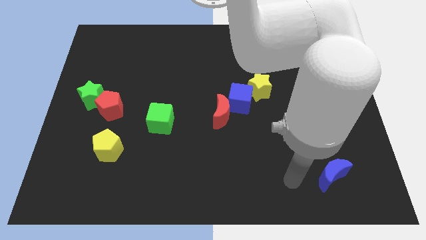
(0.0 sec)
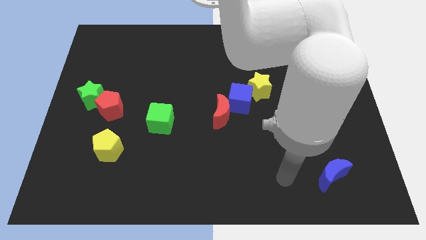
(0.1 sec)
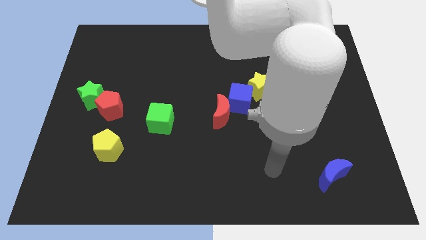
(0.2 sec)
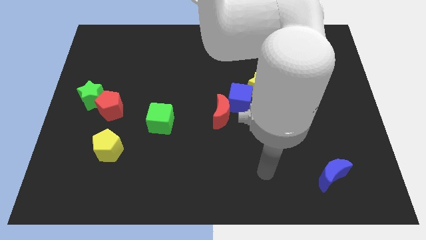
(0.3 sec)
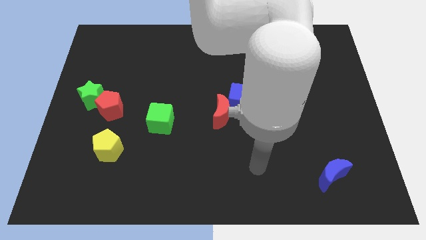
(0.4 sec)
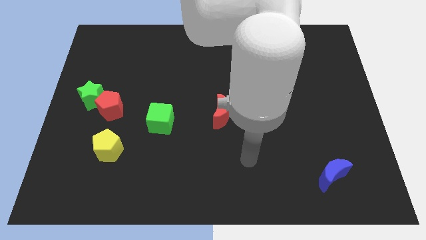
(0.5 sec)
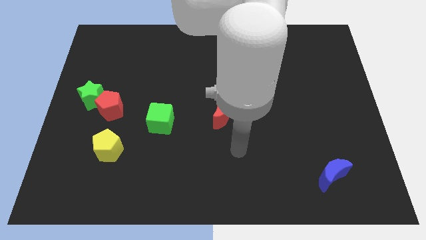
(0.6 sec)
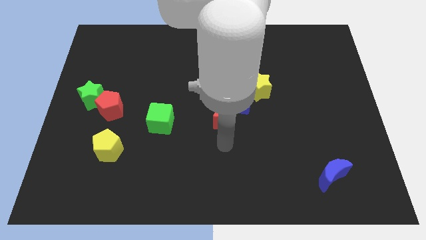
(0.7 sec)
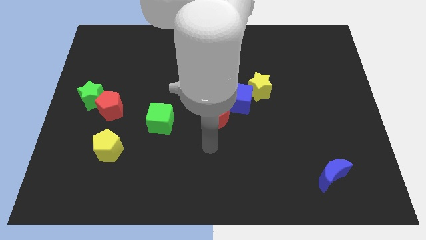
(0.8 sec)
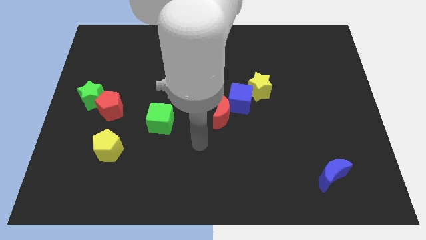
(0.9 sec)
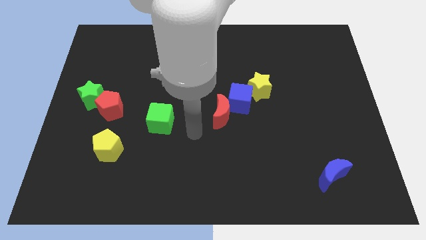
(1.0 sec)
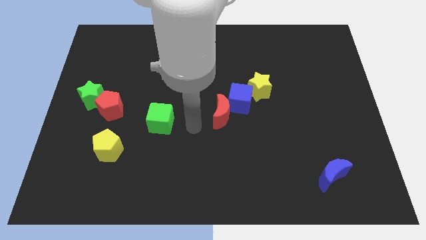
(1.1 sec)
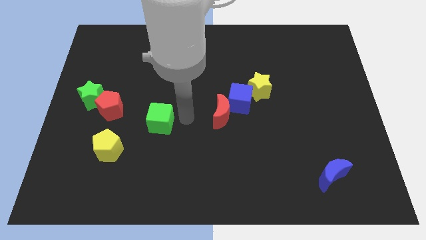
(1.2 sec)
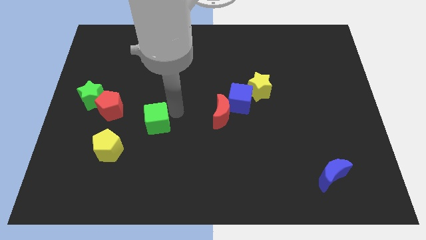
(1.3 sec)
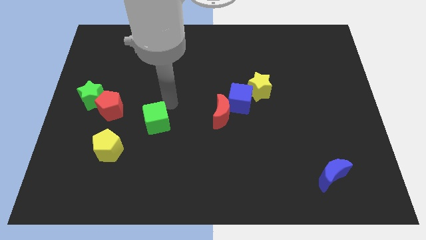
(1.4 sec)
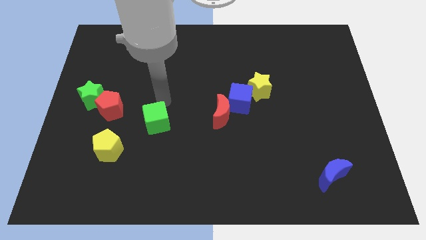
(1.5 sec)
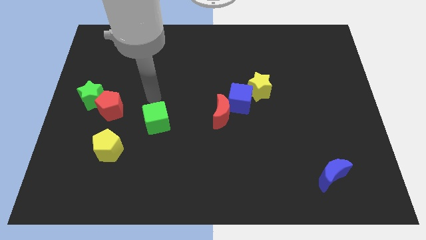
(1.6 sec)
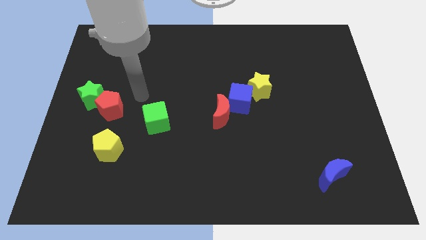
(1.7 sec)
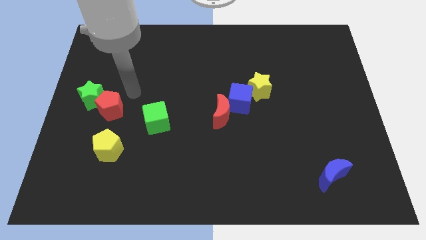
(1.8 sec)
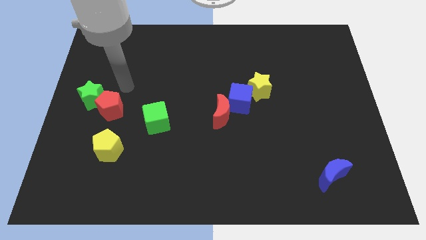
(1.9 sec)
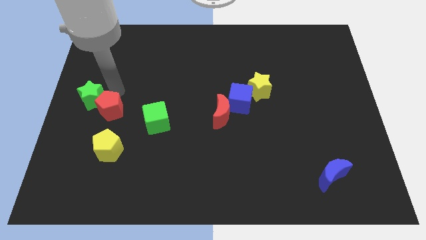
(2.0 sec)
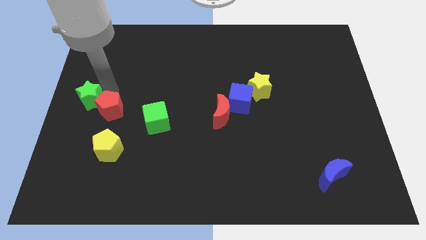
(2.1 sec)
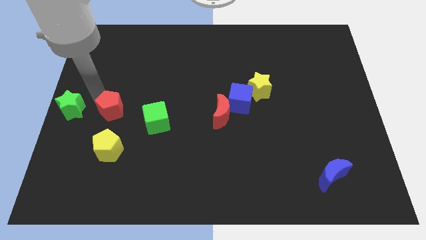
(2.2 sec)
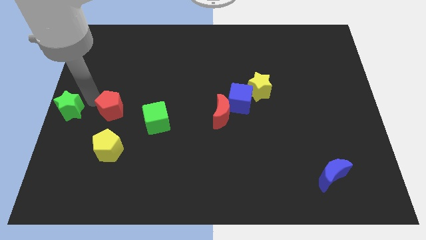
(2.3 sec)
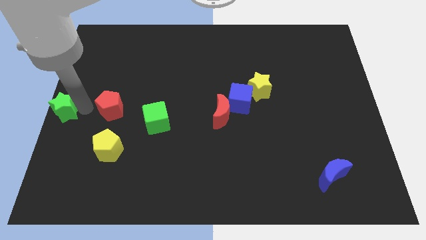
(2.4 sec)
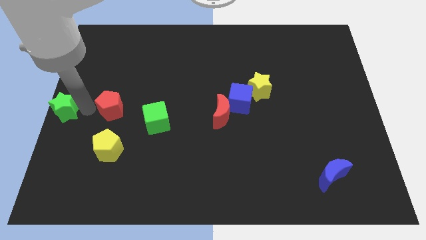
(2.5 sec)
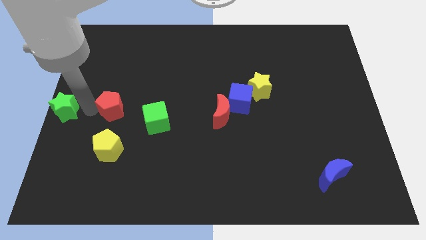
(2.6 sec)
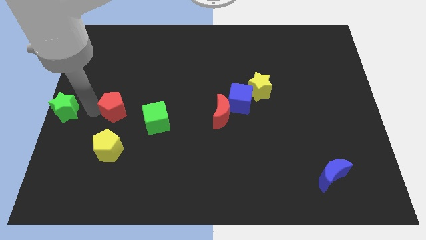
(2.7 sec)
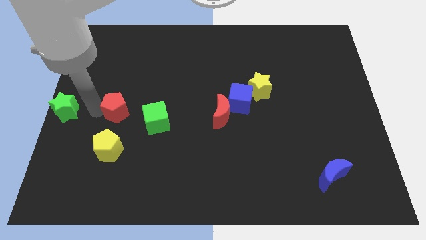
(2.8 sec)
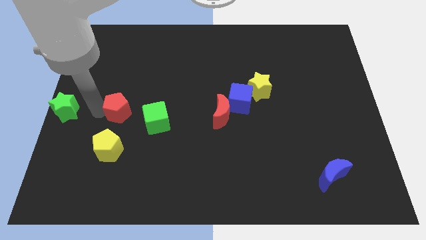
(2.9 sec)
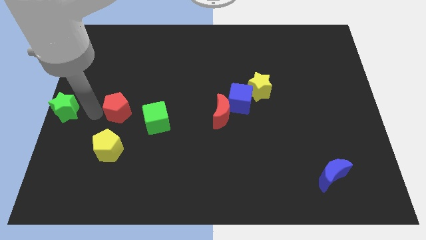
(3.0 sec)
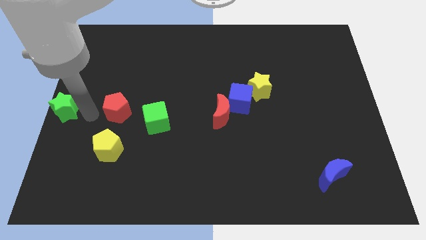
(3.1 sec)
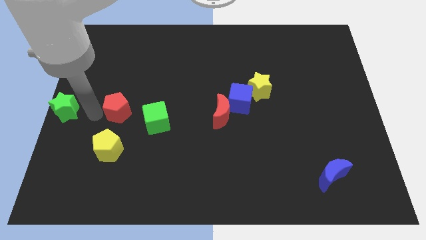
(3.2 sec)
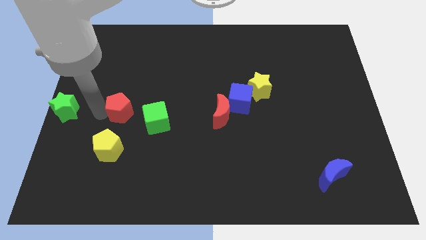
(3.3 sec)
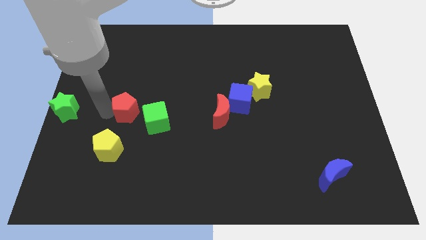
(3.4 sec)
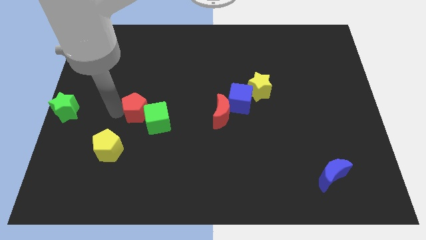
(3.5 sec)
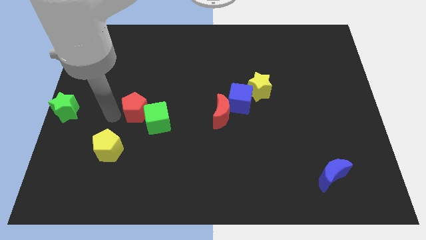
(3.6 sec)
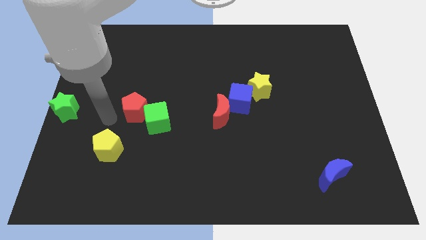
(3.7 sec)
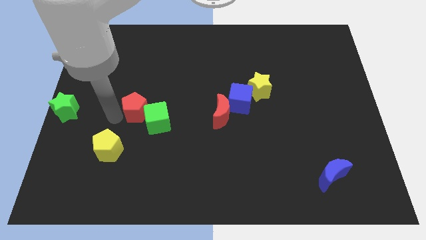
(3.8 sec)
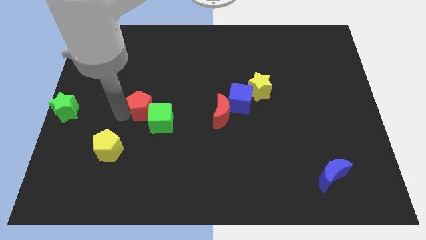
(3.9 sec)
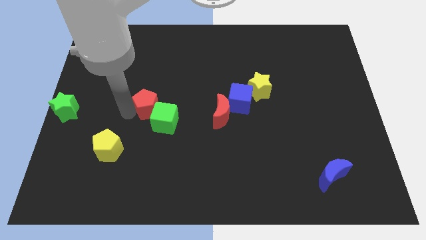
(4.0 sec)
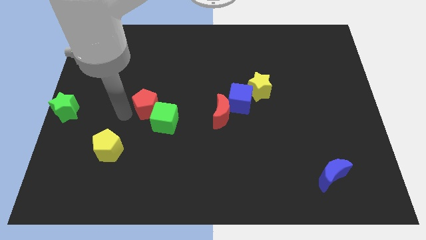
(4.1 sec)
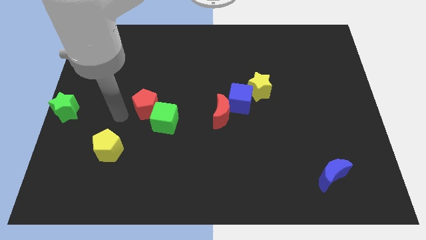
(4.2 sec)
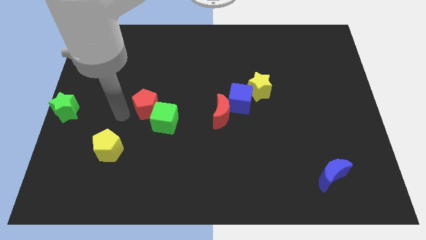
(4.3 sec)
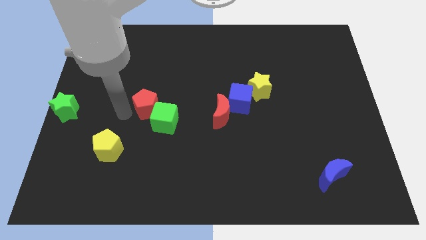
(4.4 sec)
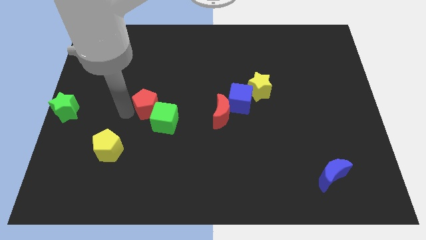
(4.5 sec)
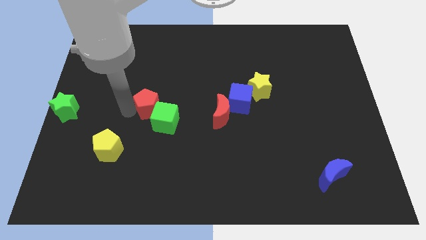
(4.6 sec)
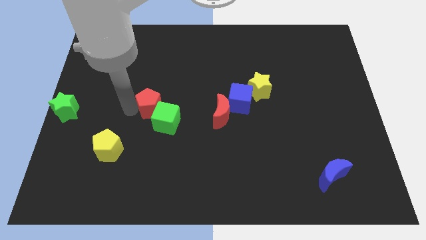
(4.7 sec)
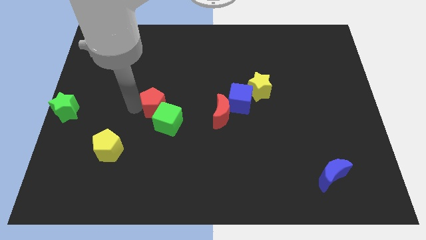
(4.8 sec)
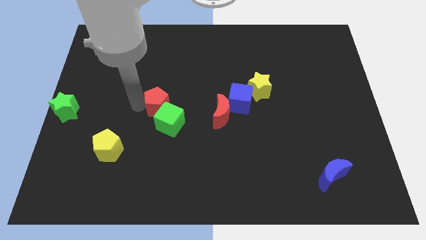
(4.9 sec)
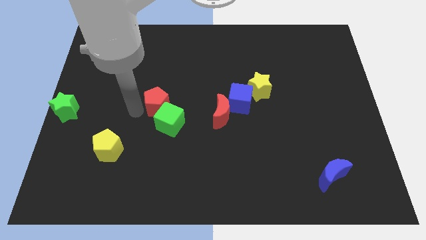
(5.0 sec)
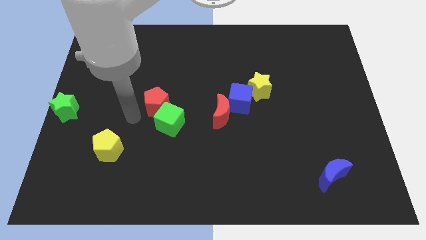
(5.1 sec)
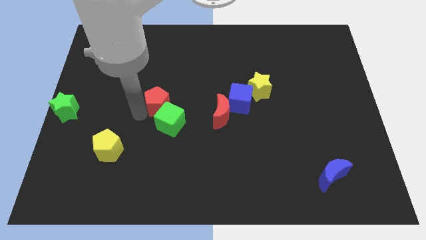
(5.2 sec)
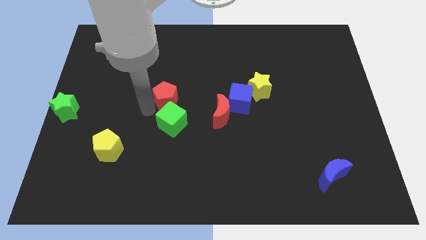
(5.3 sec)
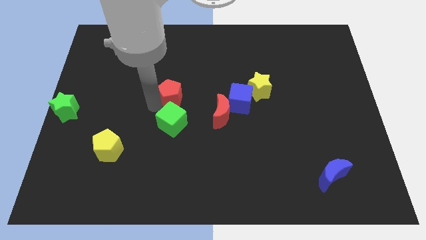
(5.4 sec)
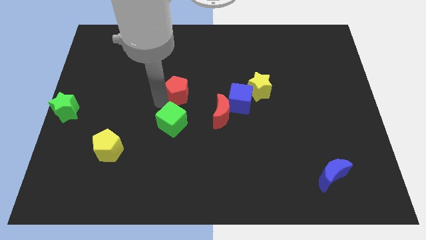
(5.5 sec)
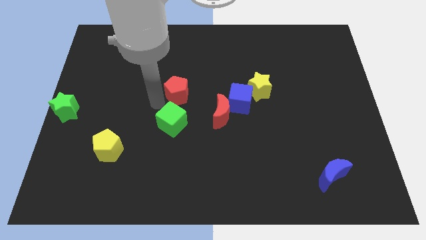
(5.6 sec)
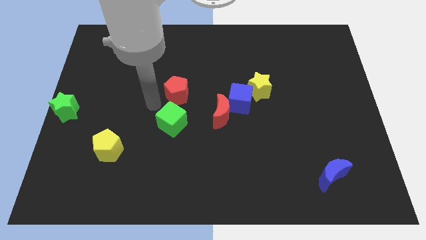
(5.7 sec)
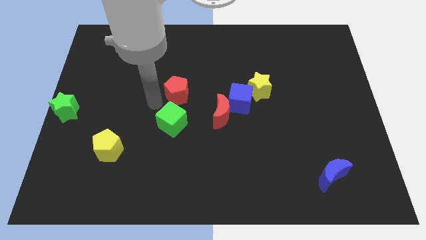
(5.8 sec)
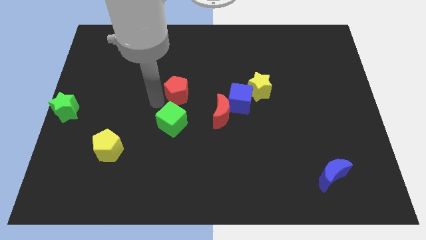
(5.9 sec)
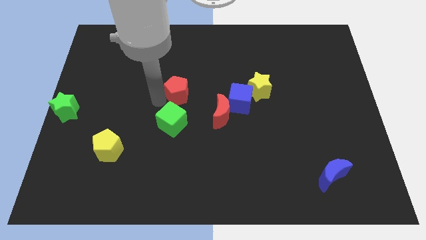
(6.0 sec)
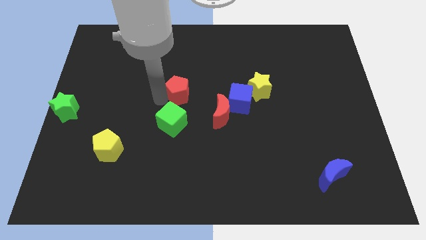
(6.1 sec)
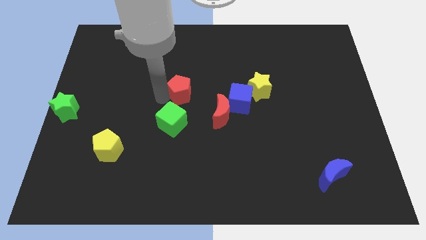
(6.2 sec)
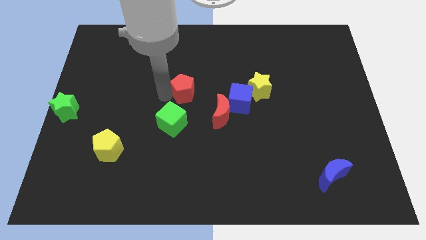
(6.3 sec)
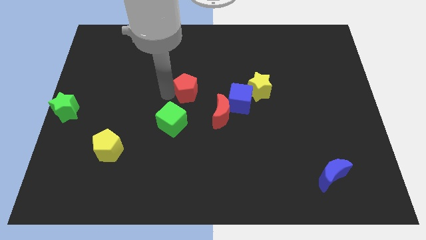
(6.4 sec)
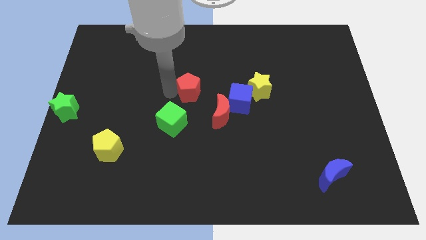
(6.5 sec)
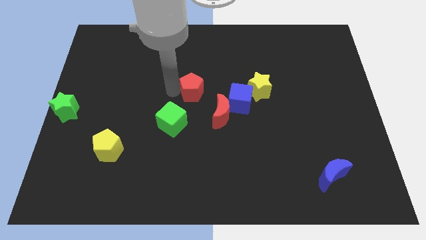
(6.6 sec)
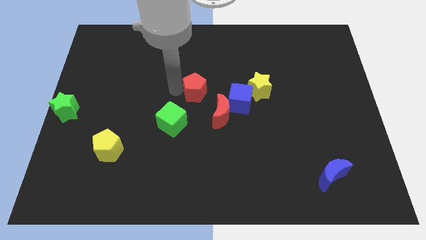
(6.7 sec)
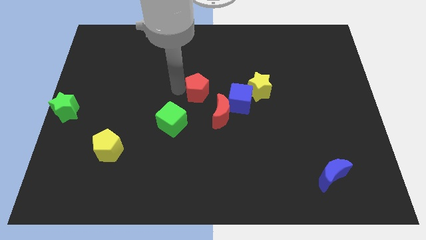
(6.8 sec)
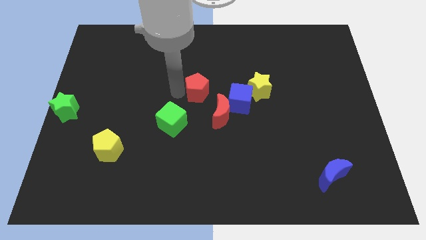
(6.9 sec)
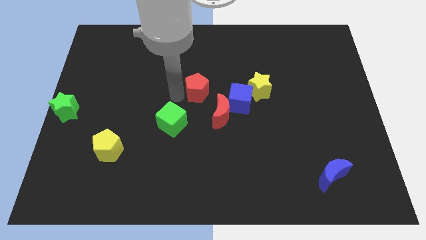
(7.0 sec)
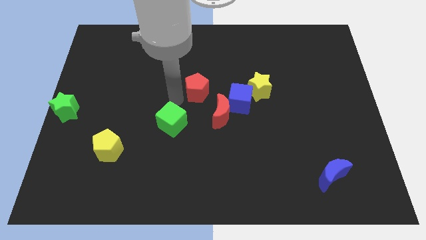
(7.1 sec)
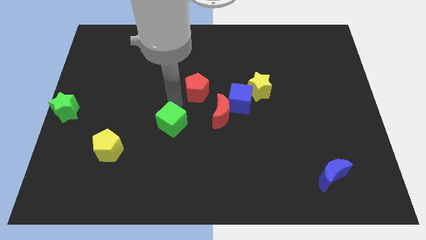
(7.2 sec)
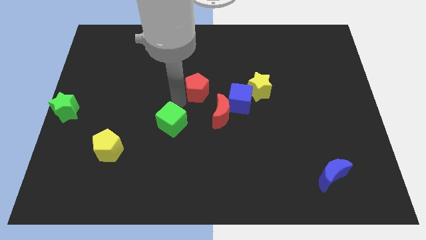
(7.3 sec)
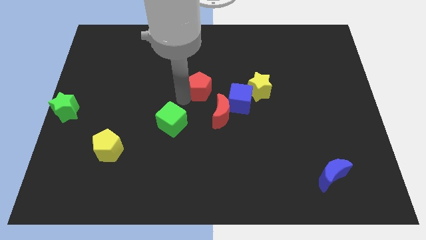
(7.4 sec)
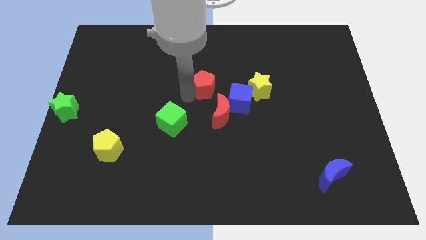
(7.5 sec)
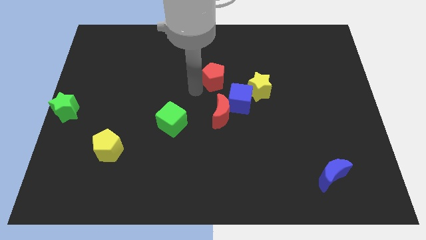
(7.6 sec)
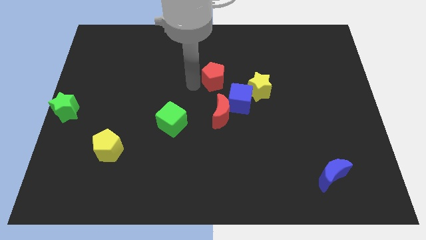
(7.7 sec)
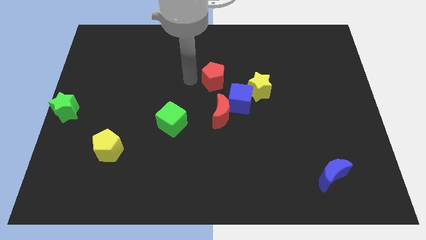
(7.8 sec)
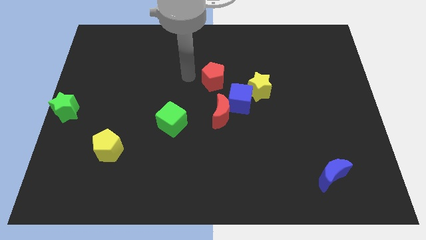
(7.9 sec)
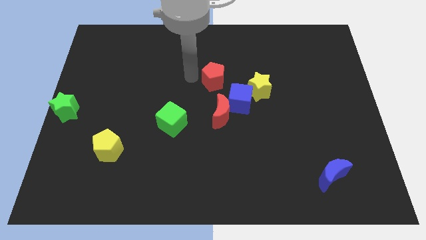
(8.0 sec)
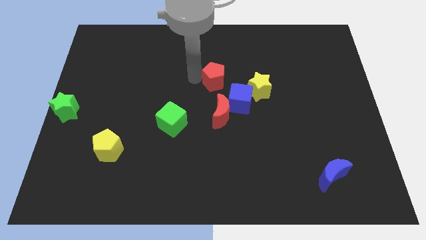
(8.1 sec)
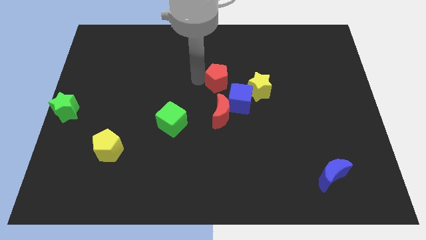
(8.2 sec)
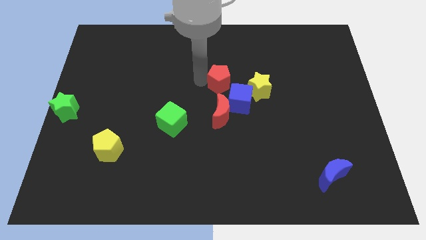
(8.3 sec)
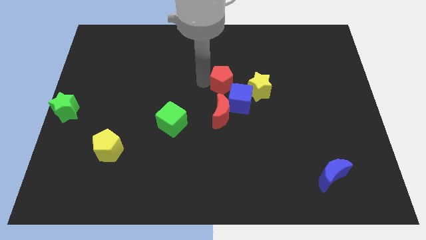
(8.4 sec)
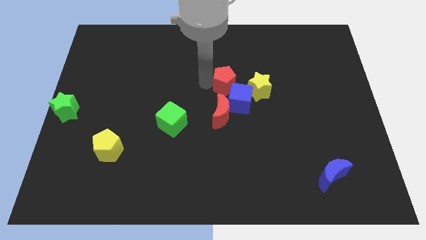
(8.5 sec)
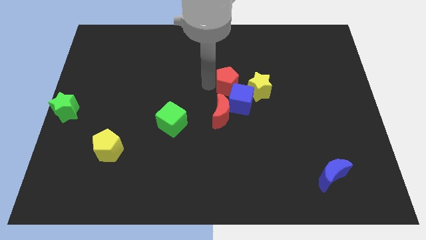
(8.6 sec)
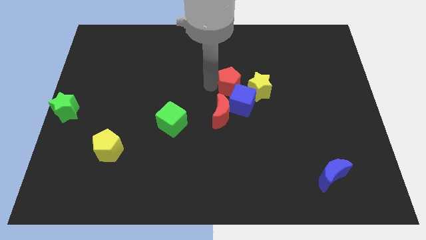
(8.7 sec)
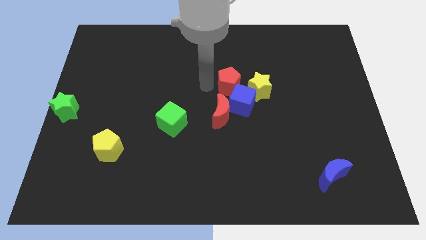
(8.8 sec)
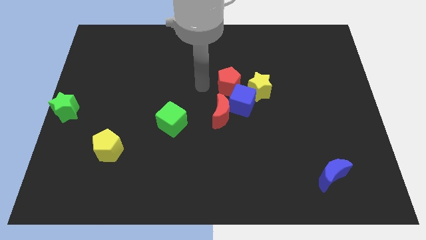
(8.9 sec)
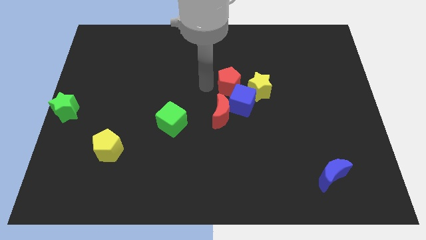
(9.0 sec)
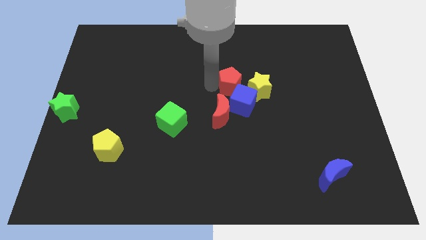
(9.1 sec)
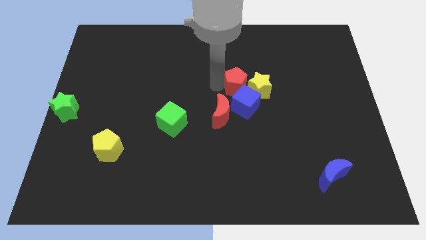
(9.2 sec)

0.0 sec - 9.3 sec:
move the red pentagon close to the yellow star
